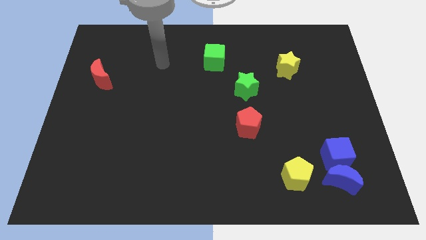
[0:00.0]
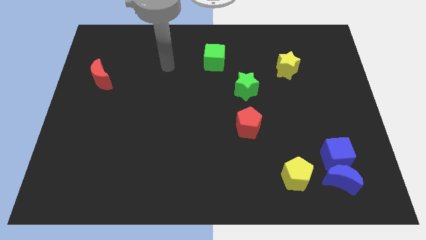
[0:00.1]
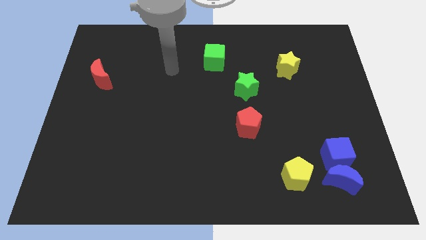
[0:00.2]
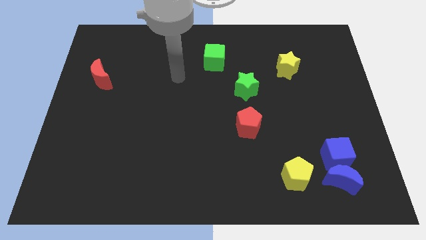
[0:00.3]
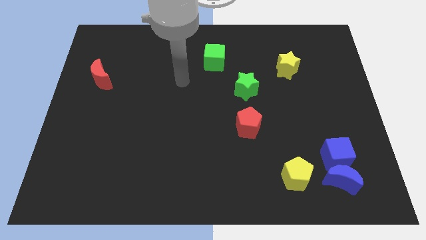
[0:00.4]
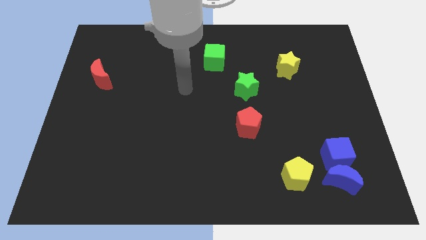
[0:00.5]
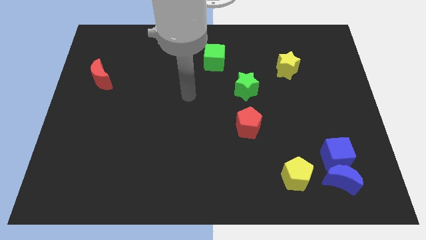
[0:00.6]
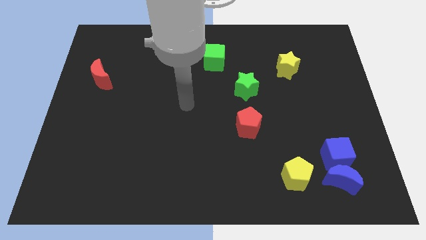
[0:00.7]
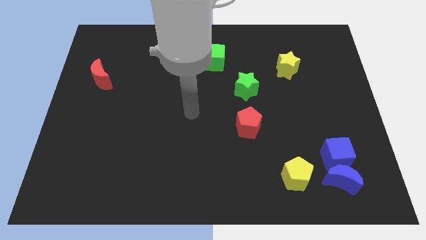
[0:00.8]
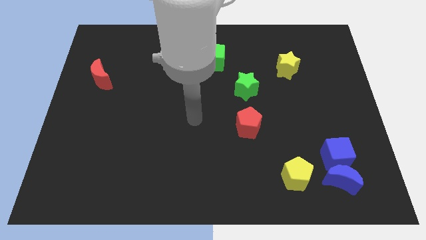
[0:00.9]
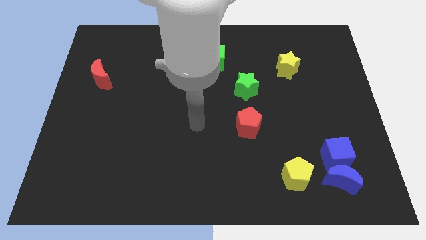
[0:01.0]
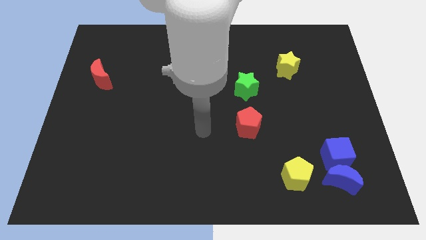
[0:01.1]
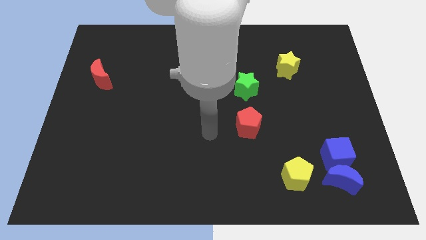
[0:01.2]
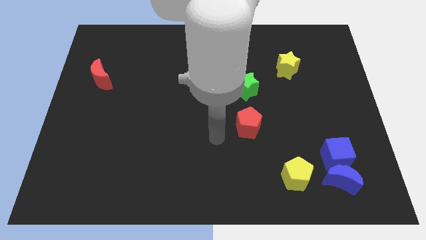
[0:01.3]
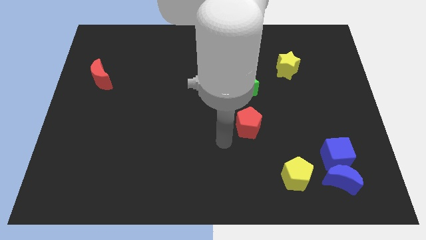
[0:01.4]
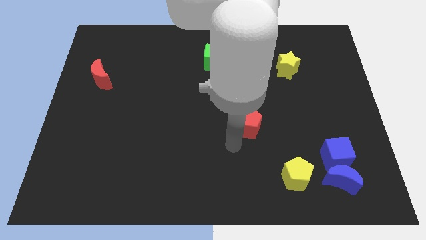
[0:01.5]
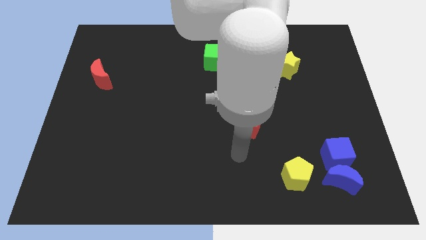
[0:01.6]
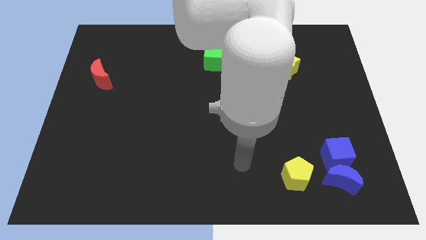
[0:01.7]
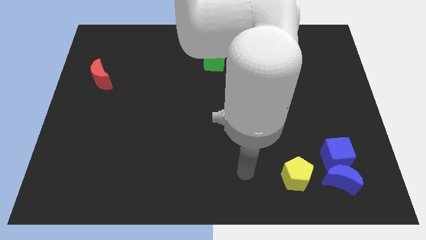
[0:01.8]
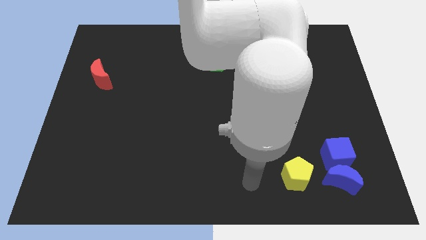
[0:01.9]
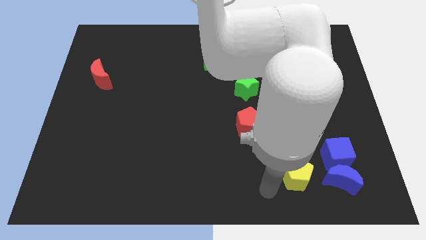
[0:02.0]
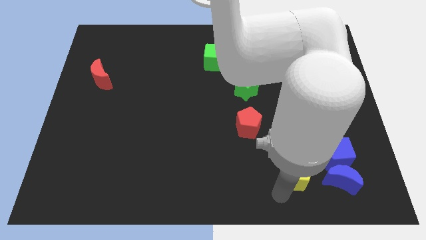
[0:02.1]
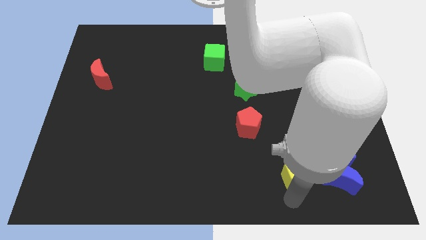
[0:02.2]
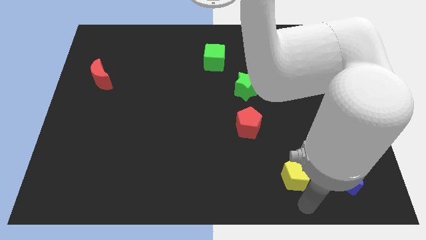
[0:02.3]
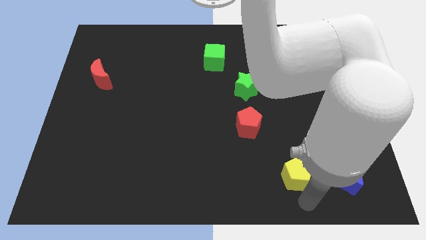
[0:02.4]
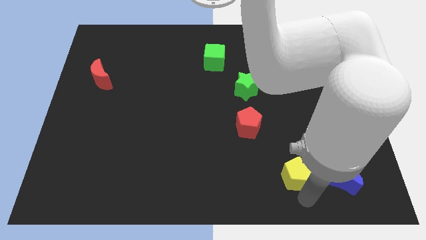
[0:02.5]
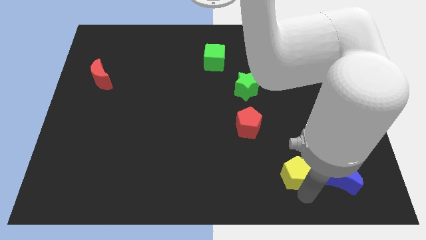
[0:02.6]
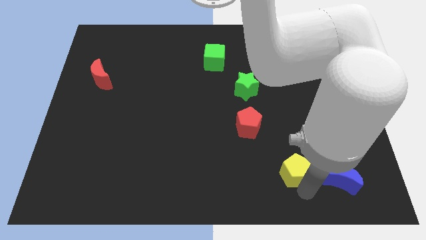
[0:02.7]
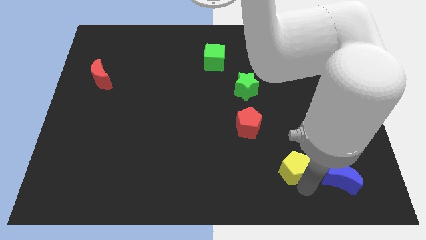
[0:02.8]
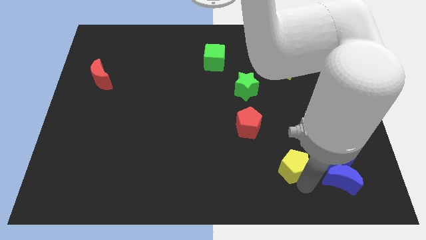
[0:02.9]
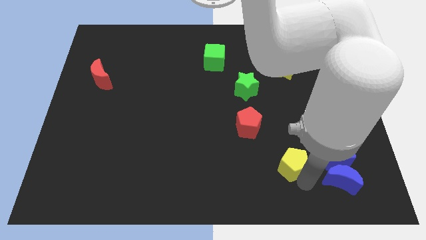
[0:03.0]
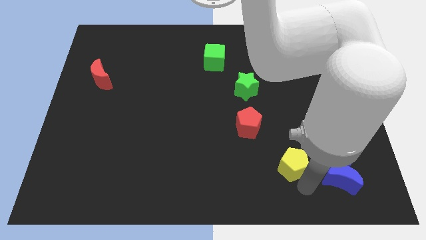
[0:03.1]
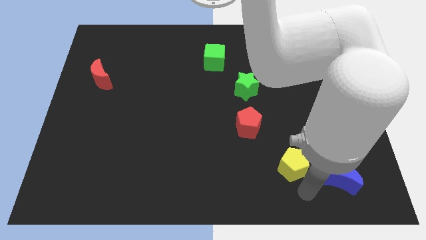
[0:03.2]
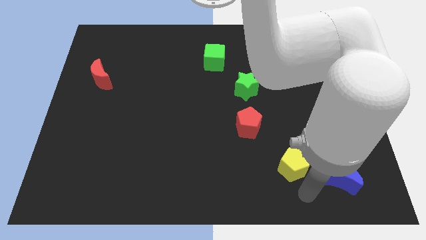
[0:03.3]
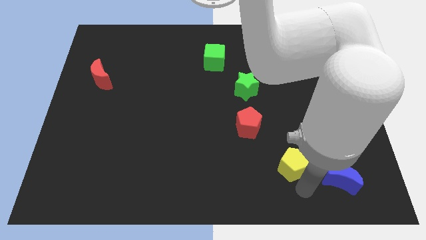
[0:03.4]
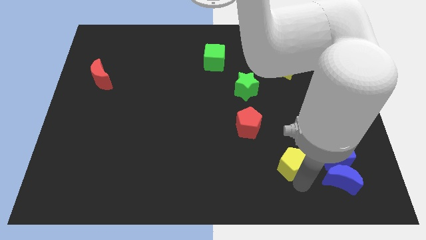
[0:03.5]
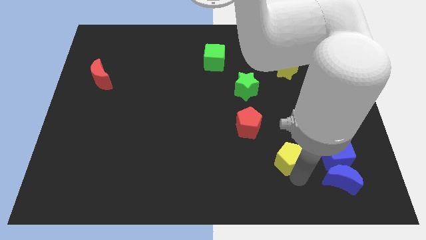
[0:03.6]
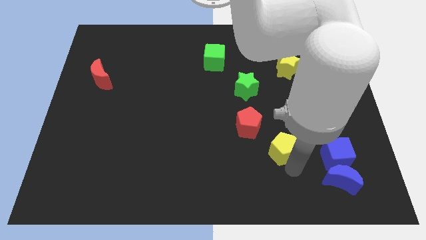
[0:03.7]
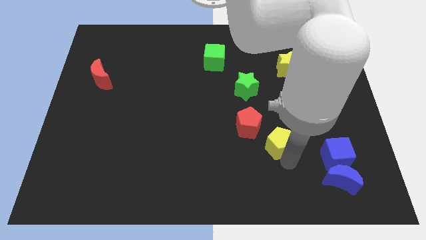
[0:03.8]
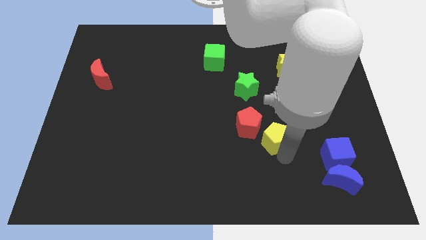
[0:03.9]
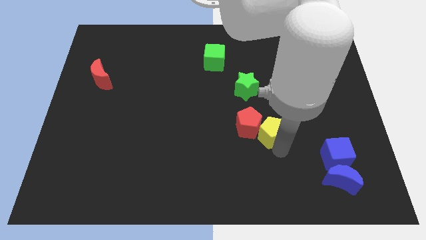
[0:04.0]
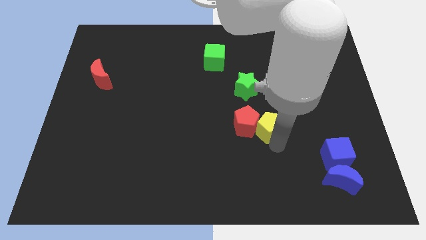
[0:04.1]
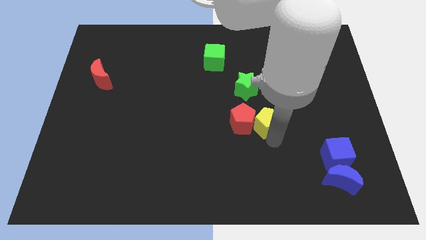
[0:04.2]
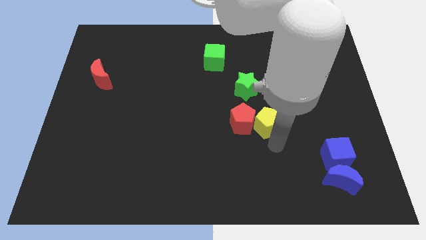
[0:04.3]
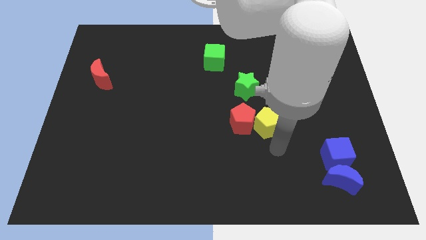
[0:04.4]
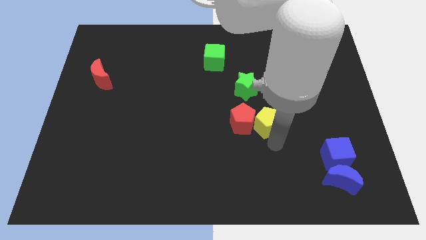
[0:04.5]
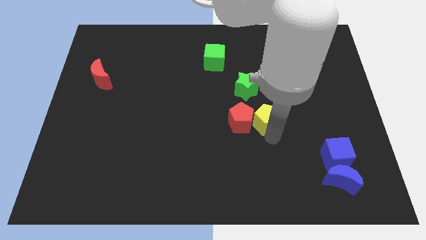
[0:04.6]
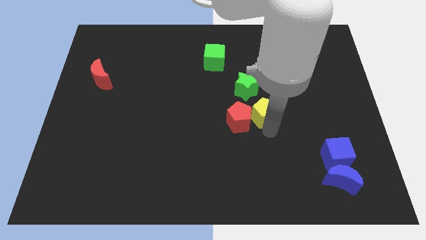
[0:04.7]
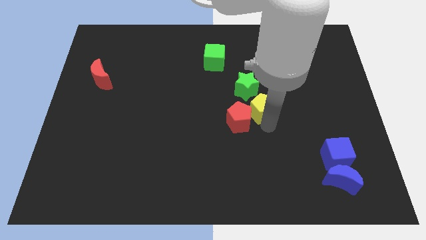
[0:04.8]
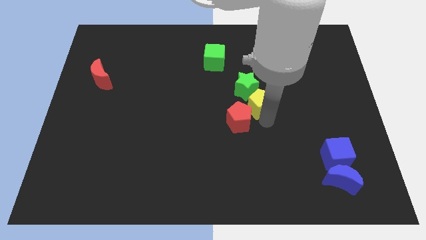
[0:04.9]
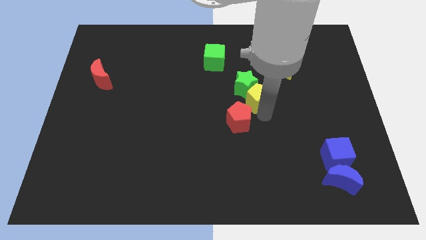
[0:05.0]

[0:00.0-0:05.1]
move the yellow pentagon to the green star

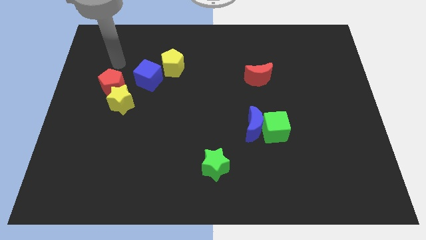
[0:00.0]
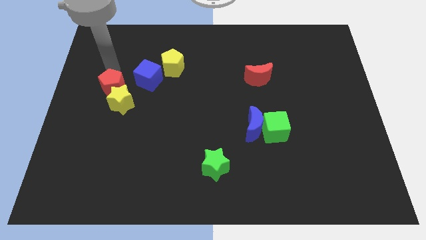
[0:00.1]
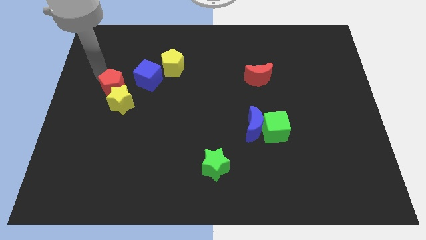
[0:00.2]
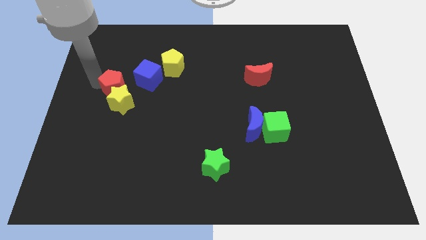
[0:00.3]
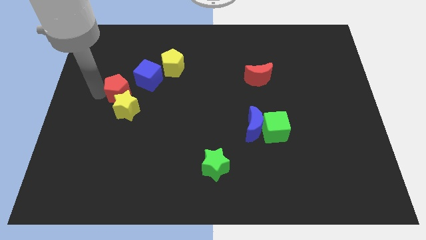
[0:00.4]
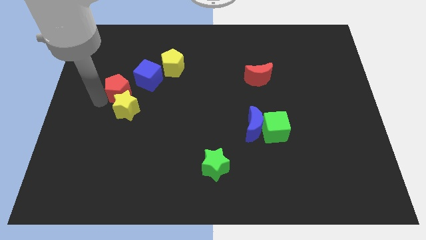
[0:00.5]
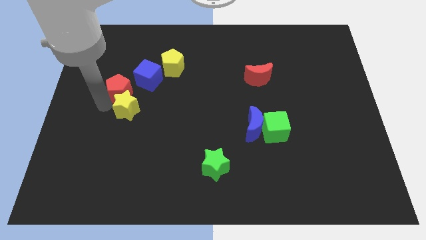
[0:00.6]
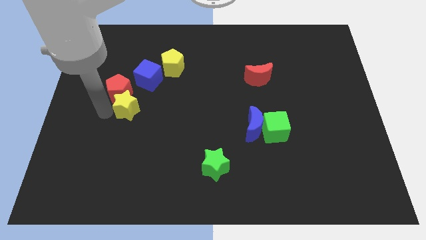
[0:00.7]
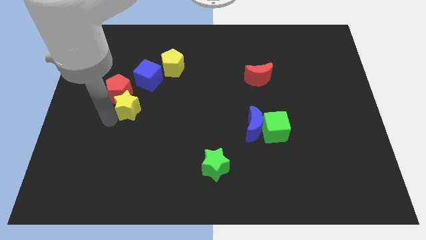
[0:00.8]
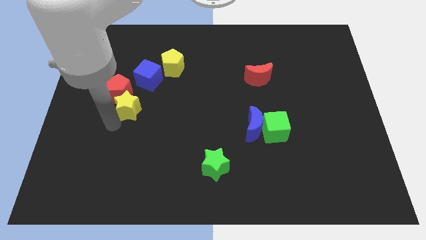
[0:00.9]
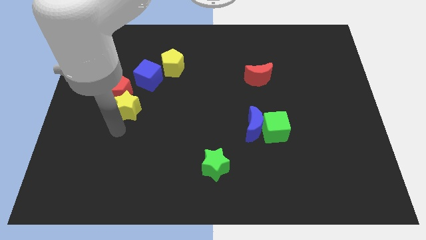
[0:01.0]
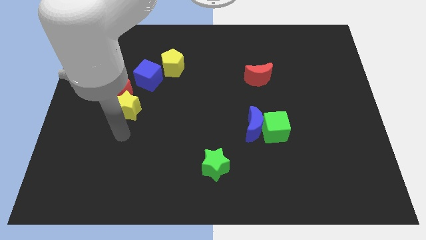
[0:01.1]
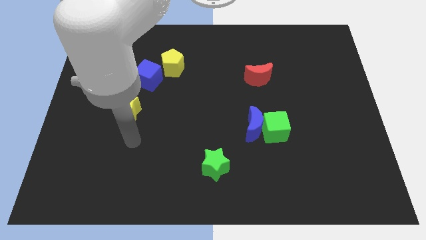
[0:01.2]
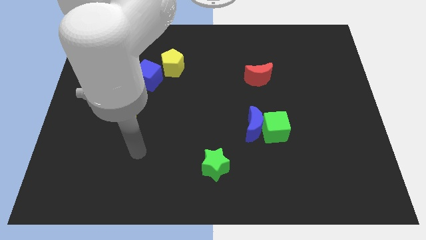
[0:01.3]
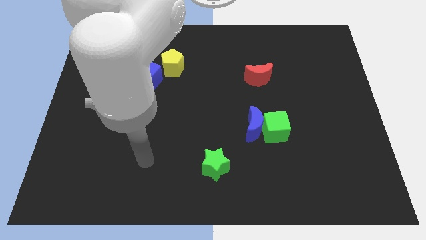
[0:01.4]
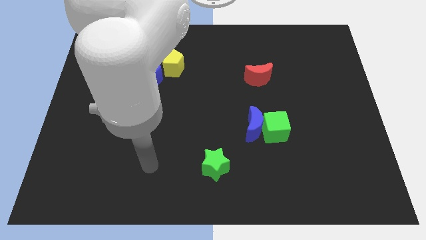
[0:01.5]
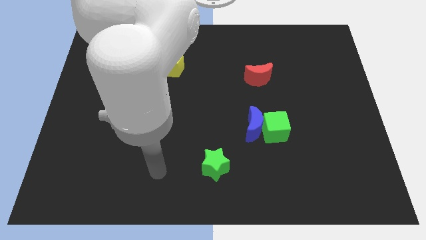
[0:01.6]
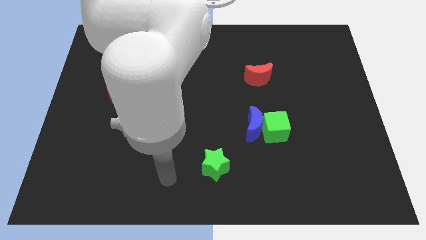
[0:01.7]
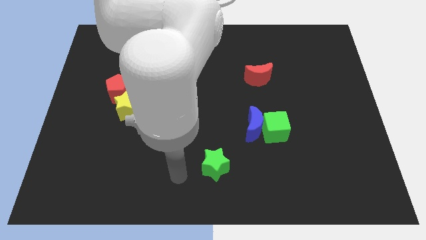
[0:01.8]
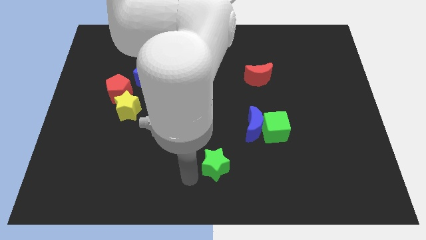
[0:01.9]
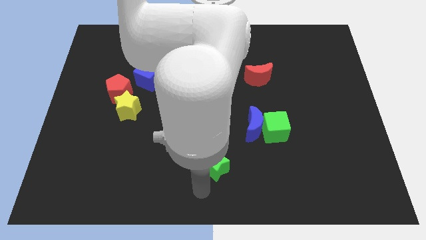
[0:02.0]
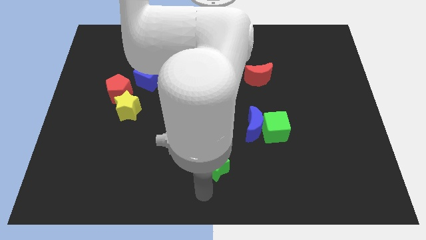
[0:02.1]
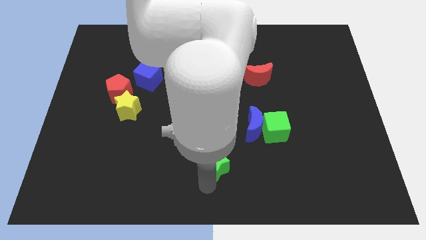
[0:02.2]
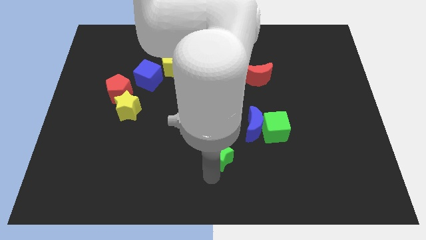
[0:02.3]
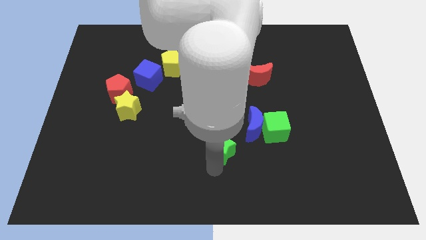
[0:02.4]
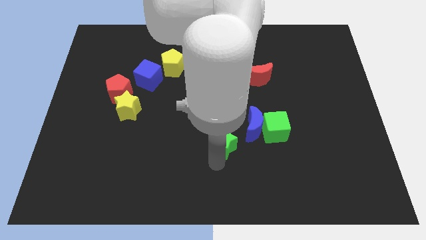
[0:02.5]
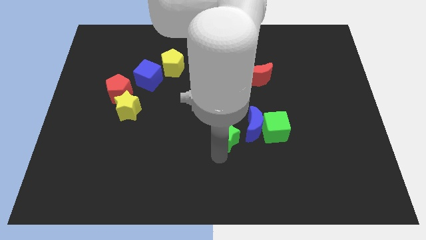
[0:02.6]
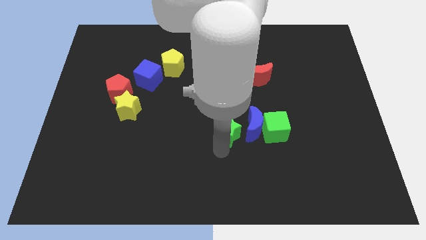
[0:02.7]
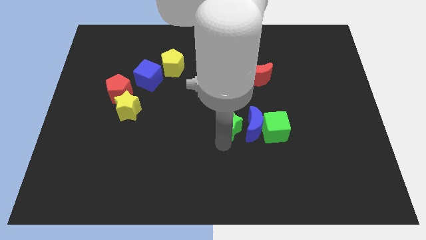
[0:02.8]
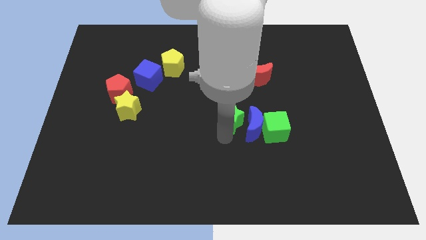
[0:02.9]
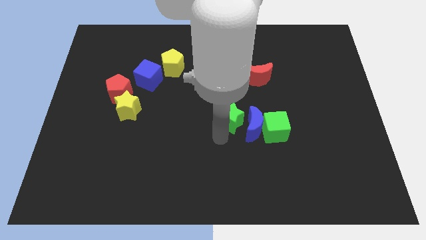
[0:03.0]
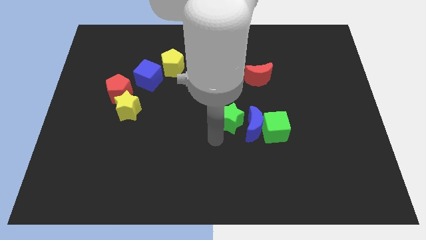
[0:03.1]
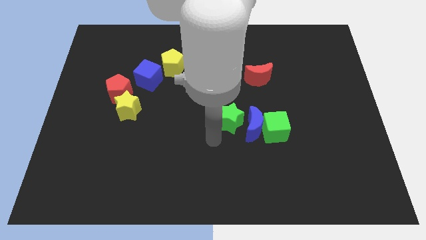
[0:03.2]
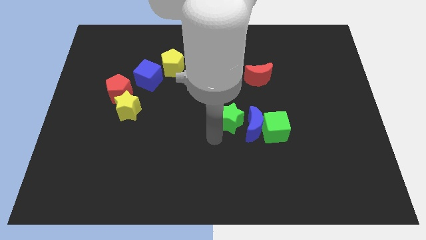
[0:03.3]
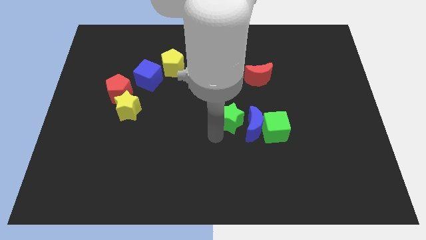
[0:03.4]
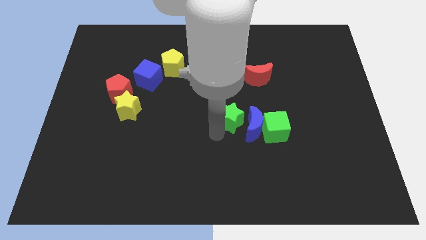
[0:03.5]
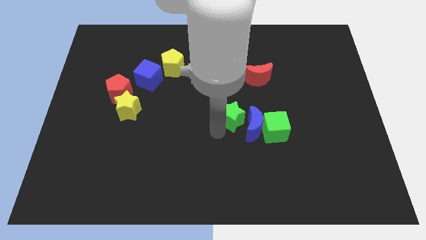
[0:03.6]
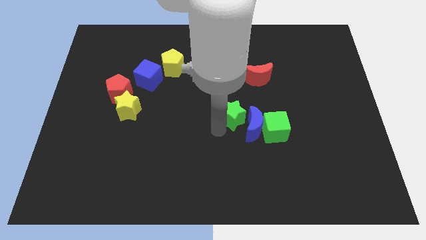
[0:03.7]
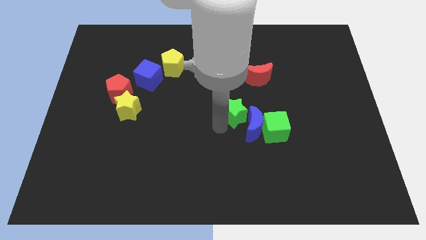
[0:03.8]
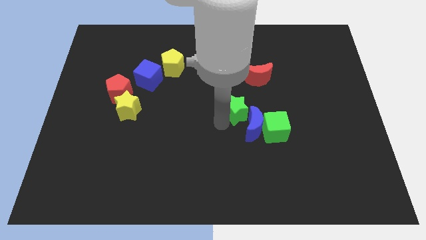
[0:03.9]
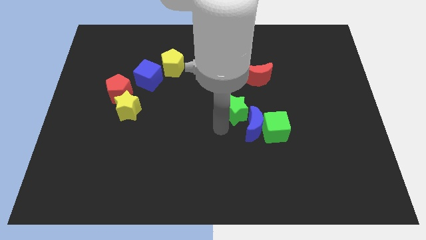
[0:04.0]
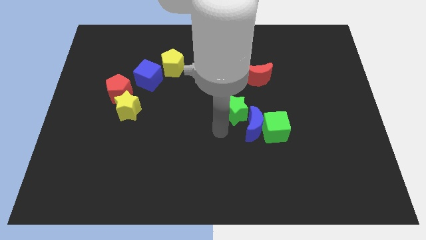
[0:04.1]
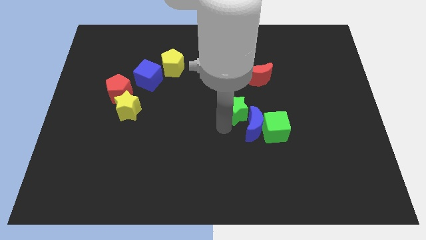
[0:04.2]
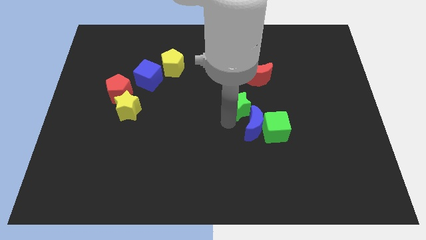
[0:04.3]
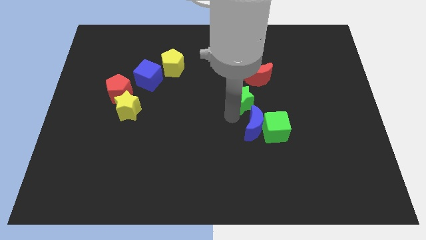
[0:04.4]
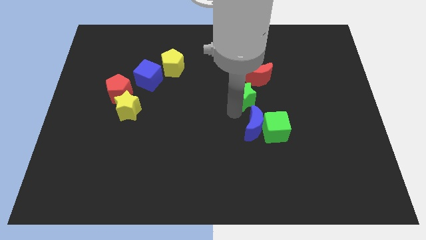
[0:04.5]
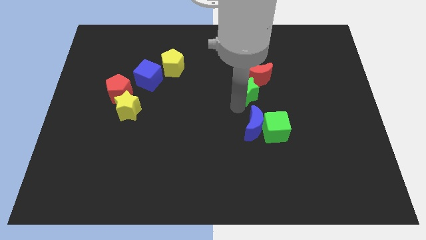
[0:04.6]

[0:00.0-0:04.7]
push the green star towards the red moon
